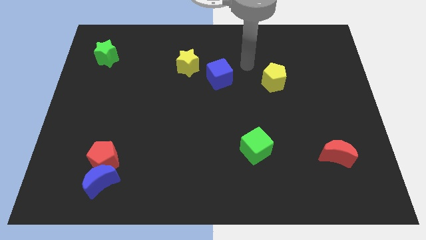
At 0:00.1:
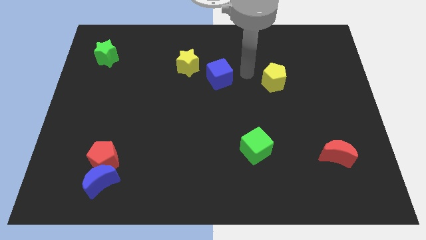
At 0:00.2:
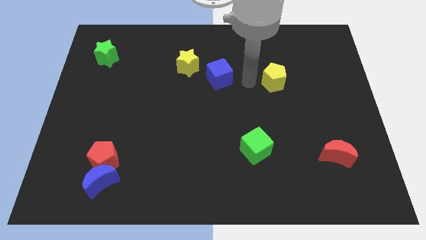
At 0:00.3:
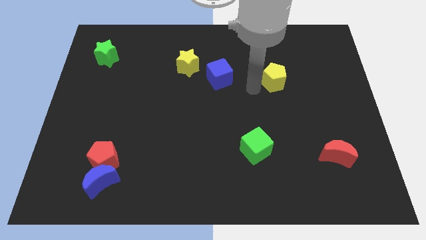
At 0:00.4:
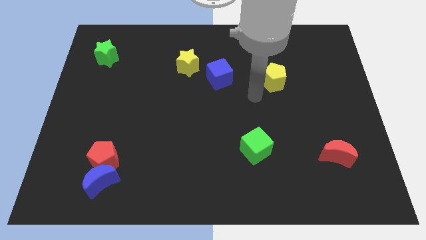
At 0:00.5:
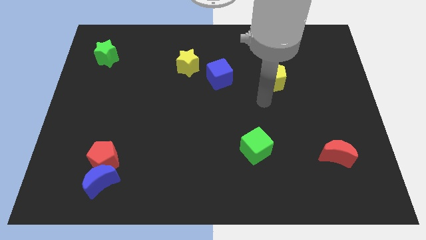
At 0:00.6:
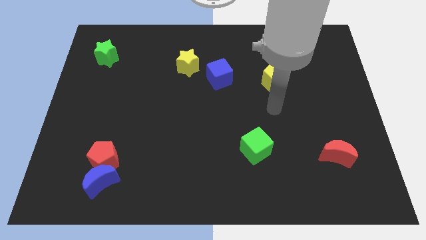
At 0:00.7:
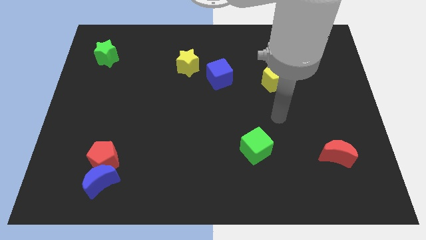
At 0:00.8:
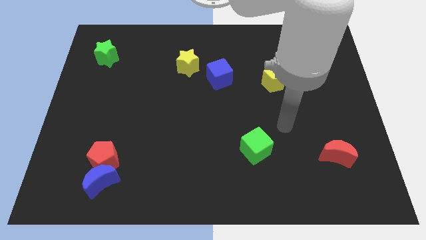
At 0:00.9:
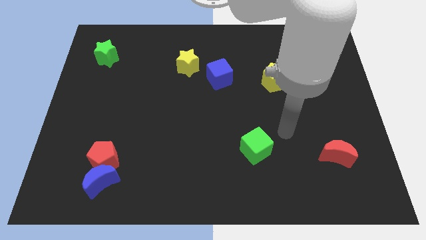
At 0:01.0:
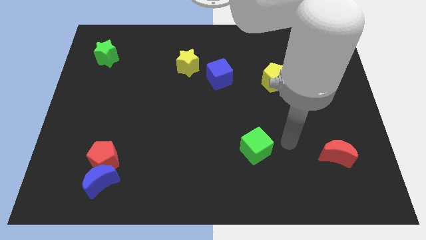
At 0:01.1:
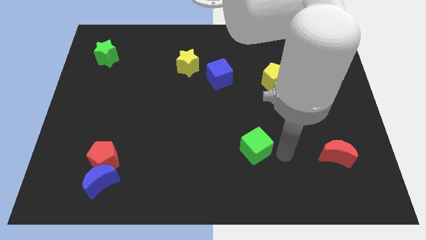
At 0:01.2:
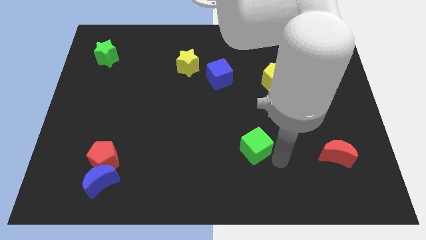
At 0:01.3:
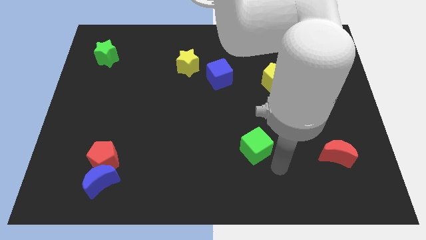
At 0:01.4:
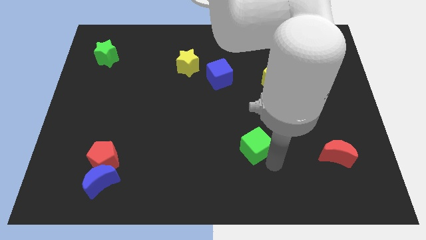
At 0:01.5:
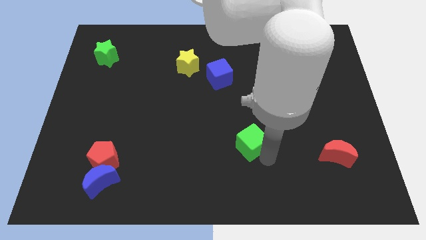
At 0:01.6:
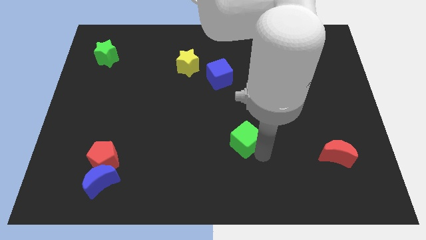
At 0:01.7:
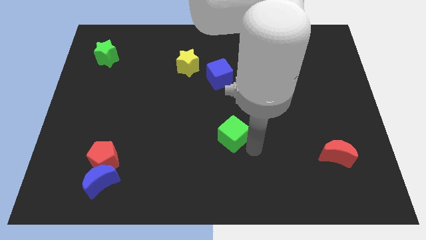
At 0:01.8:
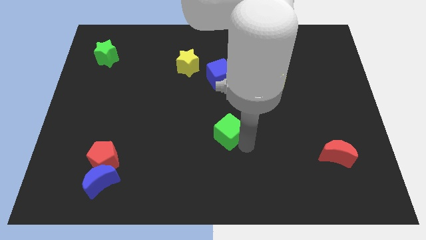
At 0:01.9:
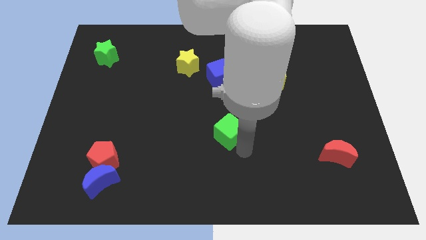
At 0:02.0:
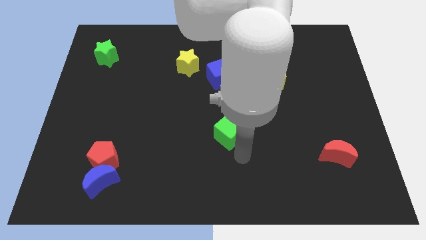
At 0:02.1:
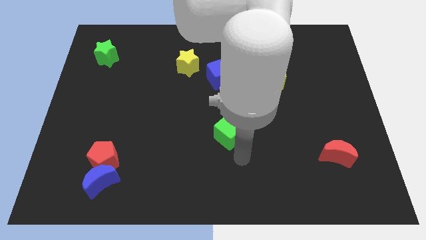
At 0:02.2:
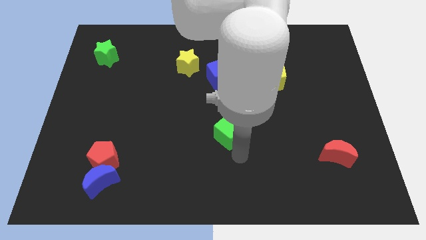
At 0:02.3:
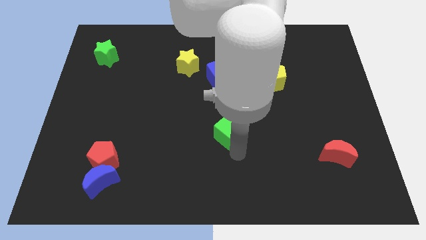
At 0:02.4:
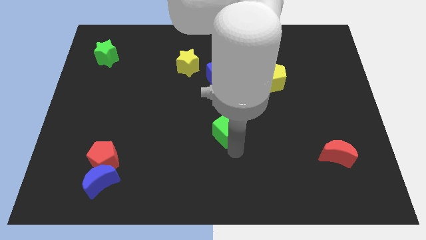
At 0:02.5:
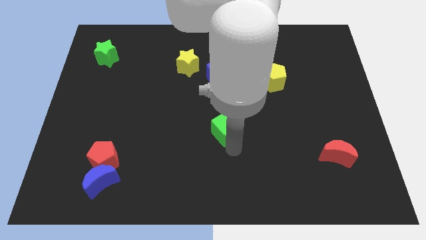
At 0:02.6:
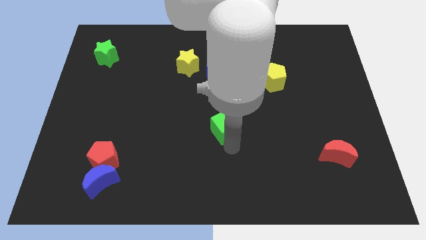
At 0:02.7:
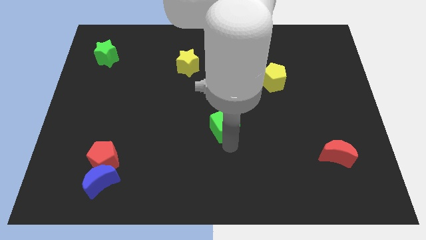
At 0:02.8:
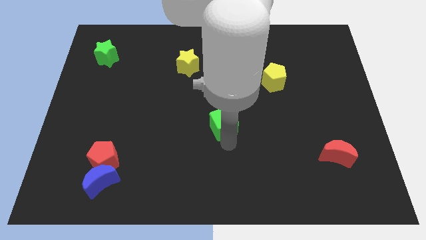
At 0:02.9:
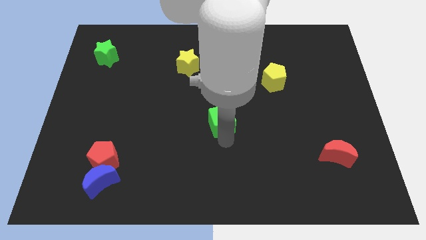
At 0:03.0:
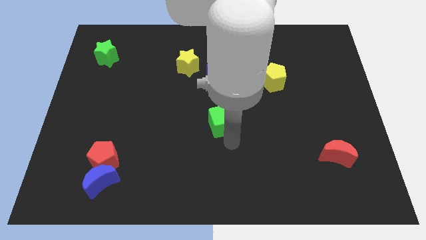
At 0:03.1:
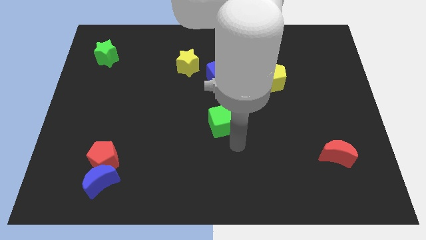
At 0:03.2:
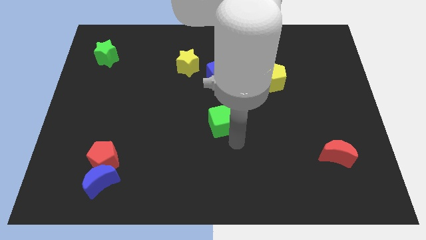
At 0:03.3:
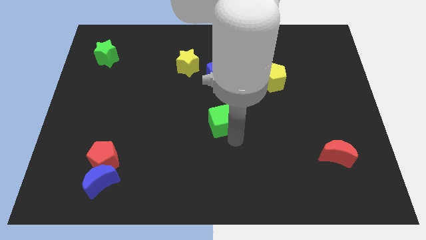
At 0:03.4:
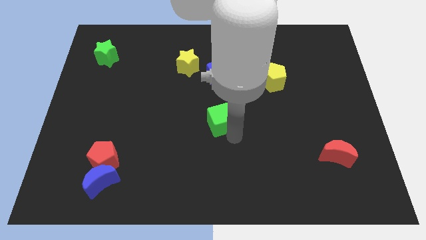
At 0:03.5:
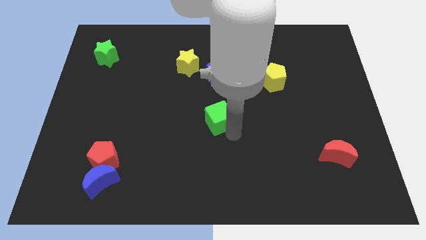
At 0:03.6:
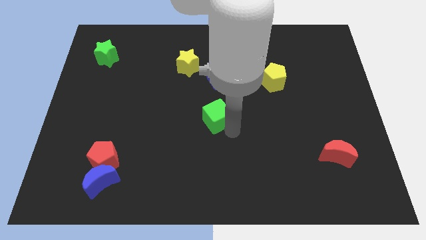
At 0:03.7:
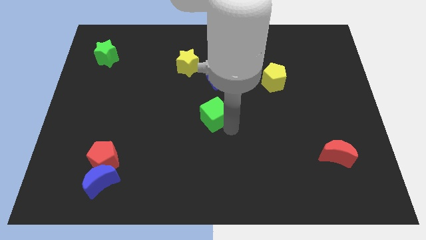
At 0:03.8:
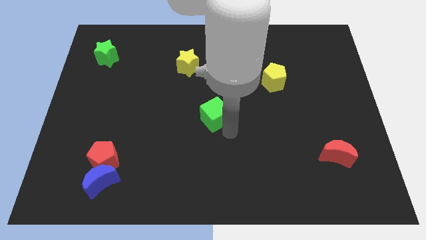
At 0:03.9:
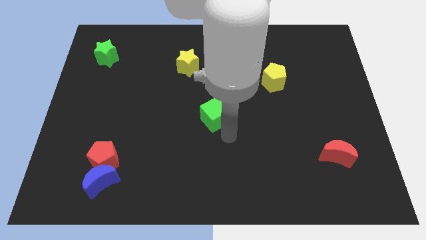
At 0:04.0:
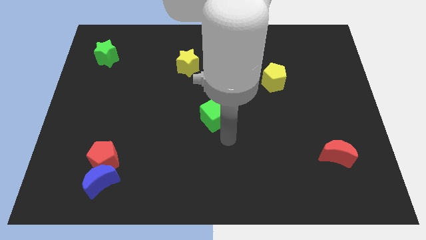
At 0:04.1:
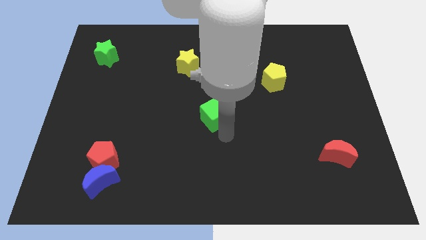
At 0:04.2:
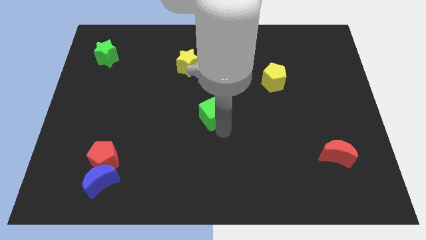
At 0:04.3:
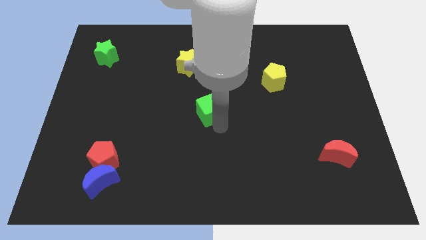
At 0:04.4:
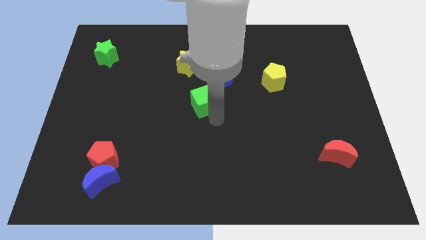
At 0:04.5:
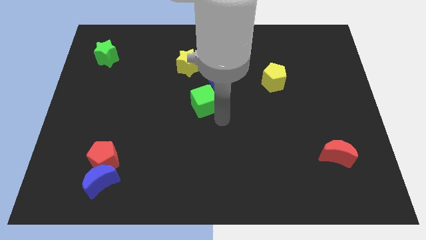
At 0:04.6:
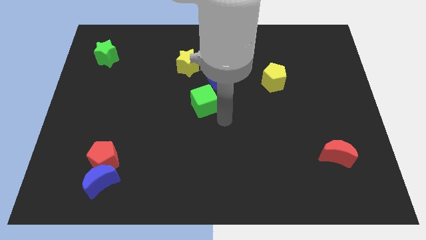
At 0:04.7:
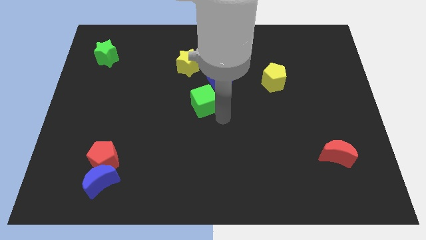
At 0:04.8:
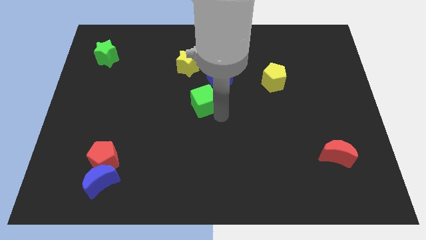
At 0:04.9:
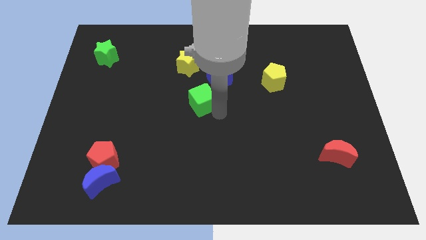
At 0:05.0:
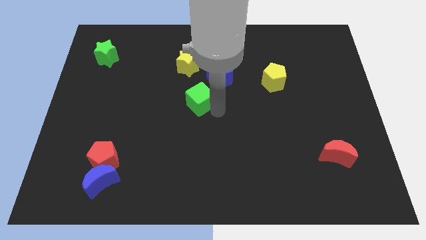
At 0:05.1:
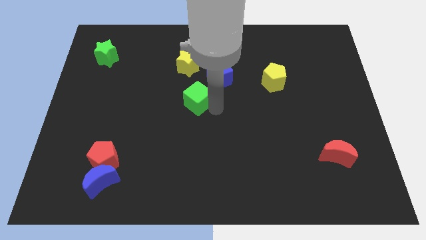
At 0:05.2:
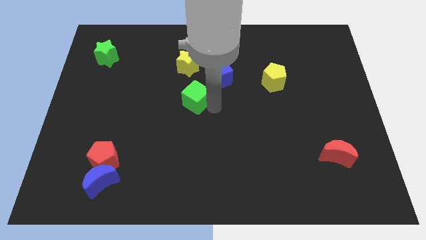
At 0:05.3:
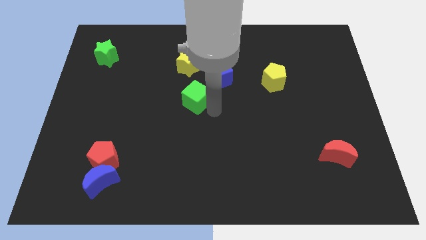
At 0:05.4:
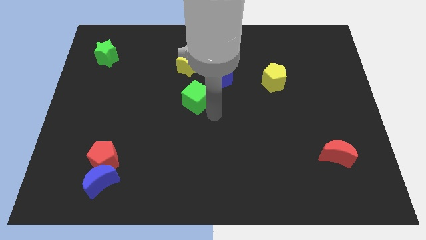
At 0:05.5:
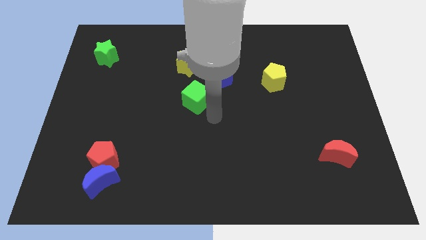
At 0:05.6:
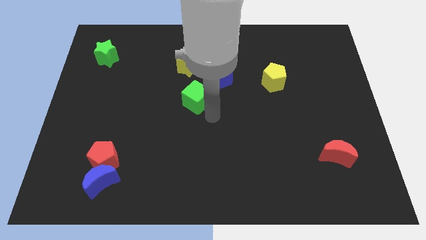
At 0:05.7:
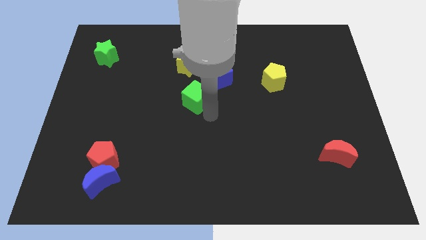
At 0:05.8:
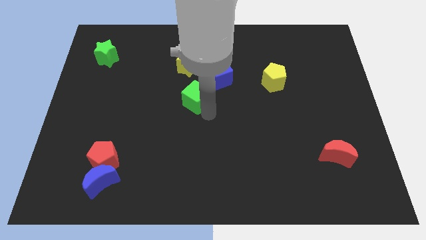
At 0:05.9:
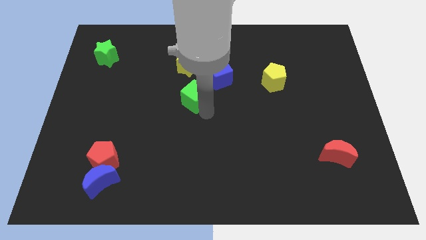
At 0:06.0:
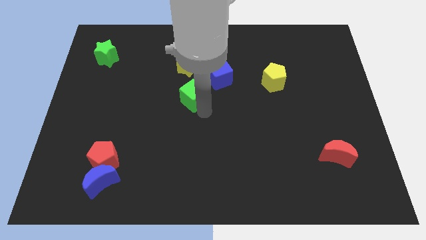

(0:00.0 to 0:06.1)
push the green cube diagonally up and left

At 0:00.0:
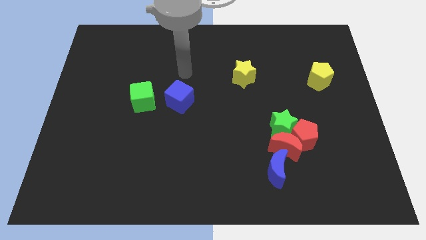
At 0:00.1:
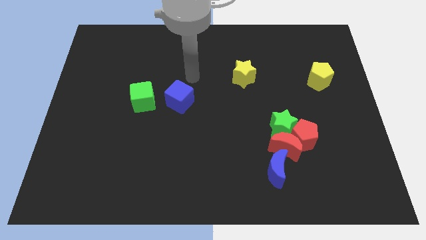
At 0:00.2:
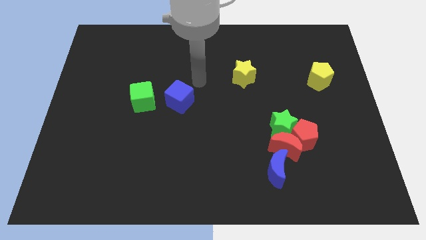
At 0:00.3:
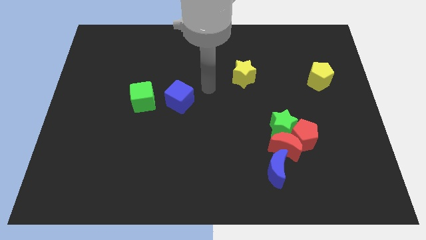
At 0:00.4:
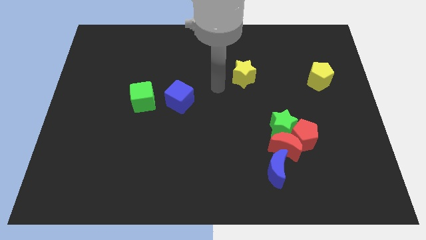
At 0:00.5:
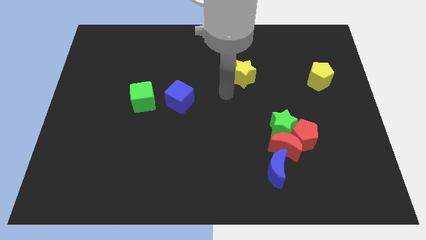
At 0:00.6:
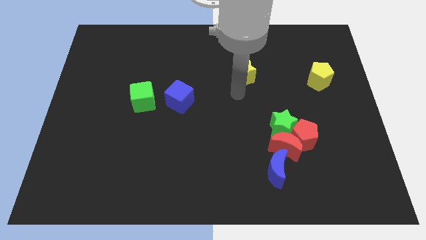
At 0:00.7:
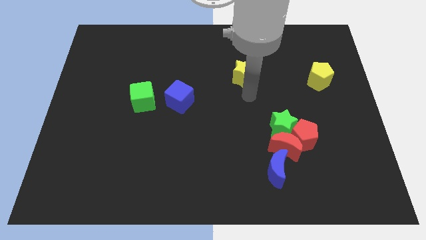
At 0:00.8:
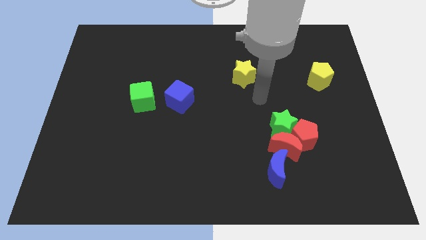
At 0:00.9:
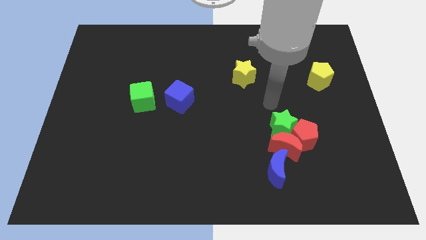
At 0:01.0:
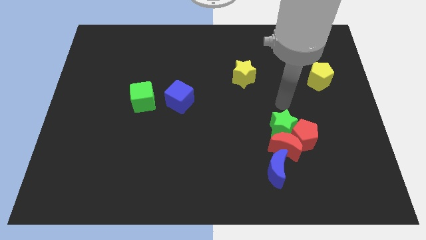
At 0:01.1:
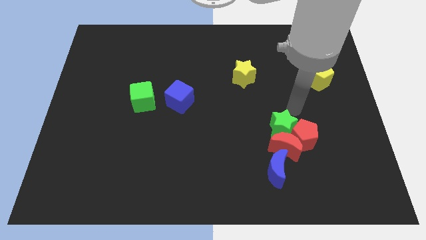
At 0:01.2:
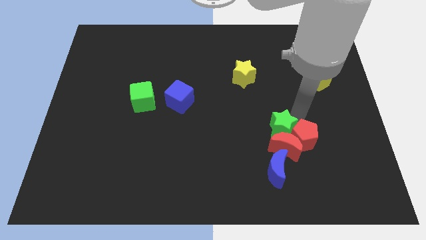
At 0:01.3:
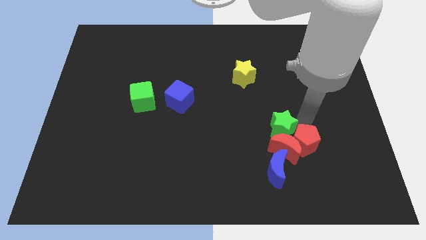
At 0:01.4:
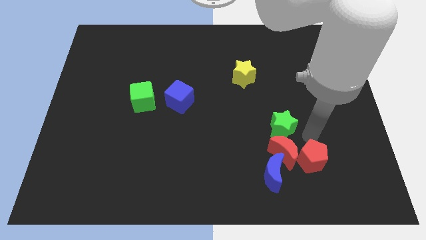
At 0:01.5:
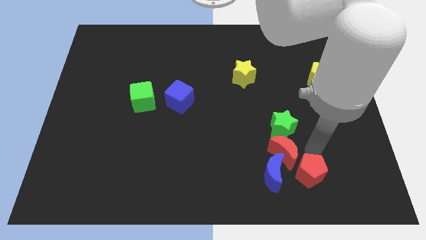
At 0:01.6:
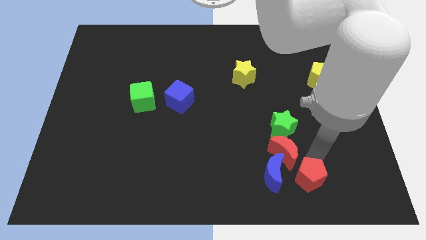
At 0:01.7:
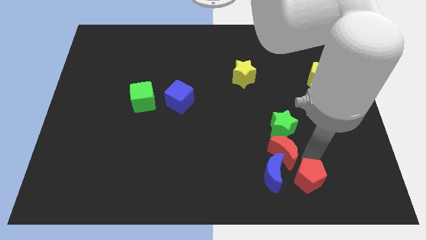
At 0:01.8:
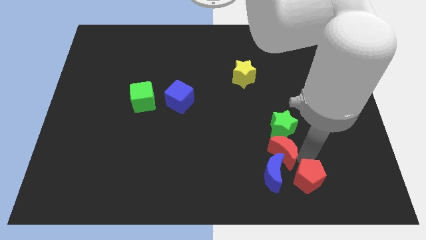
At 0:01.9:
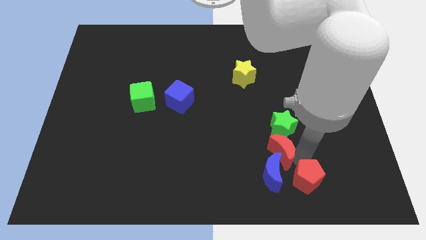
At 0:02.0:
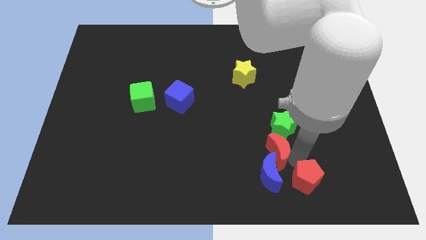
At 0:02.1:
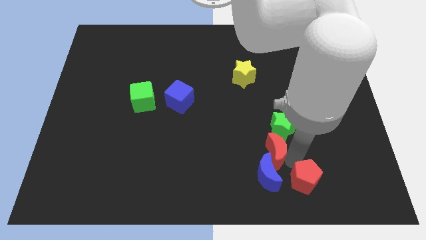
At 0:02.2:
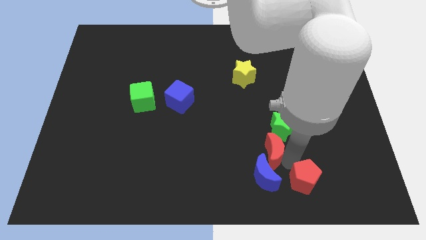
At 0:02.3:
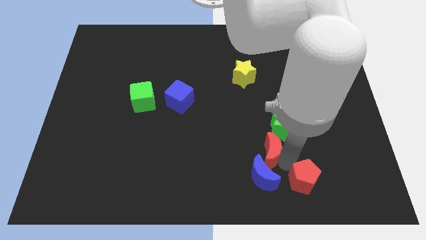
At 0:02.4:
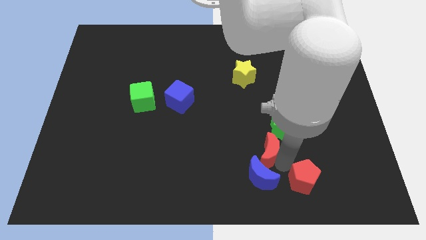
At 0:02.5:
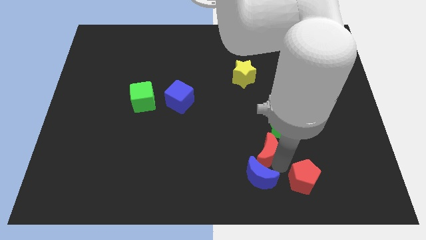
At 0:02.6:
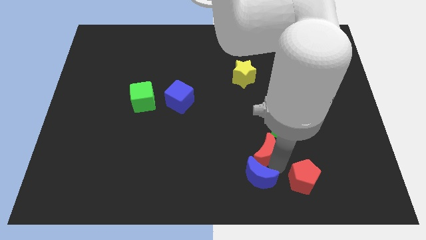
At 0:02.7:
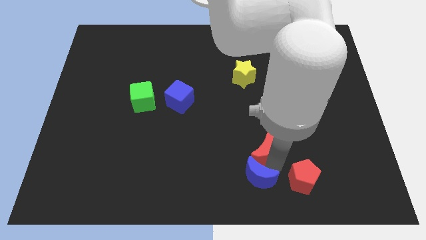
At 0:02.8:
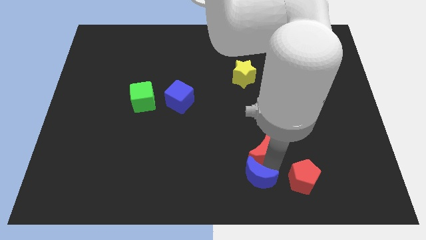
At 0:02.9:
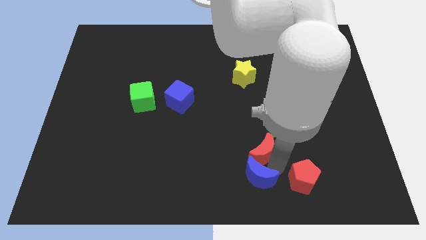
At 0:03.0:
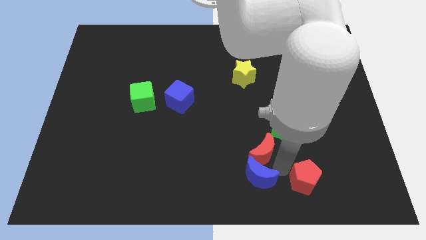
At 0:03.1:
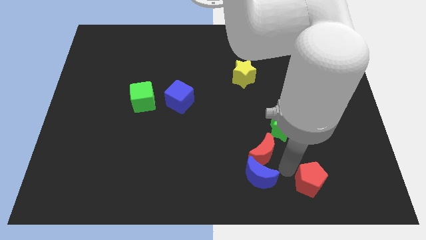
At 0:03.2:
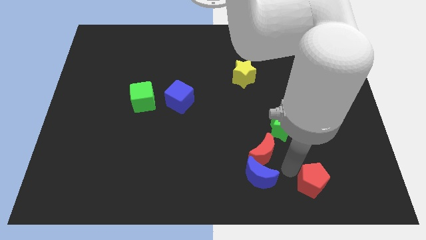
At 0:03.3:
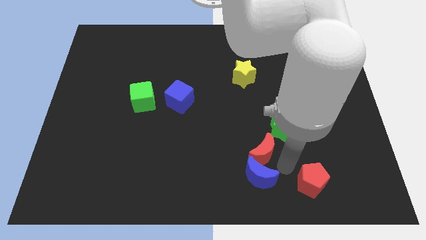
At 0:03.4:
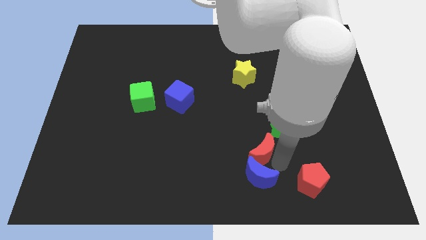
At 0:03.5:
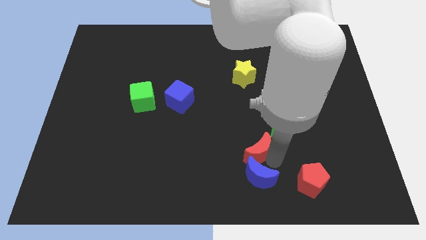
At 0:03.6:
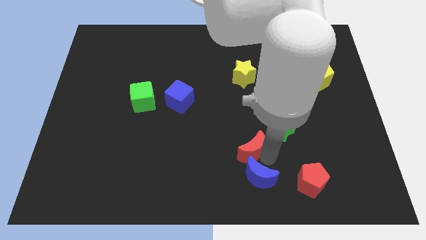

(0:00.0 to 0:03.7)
move the red moon a little bit to the left
